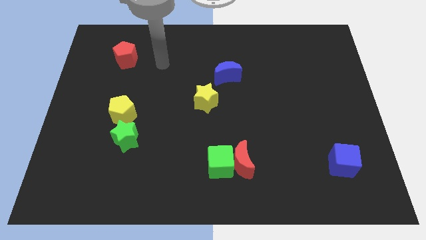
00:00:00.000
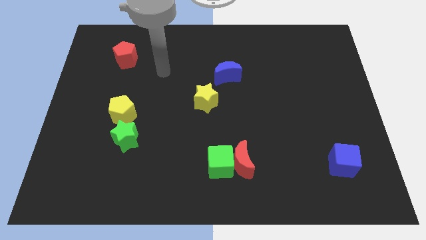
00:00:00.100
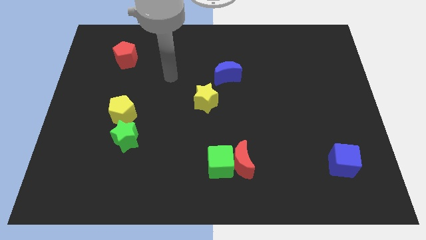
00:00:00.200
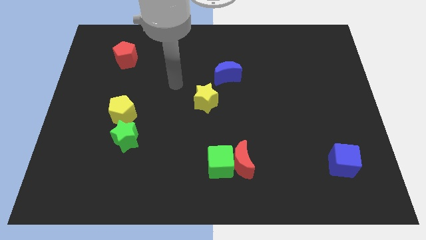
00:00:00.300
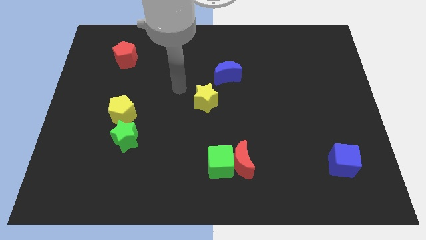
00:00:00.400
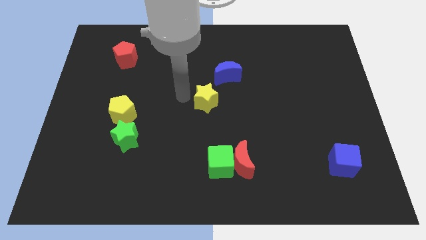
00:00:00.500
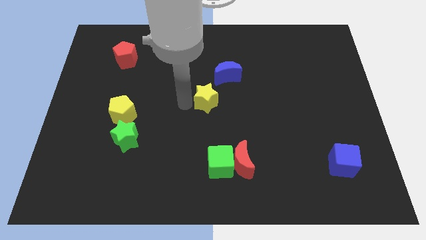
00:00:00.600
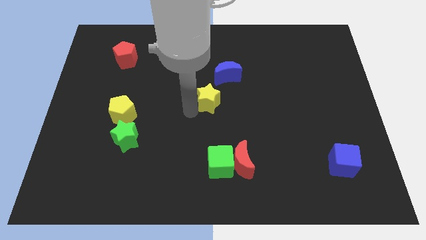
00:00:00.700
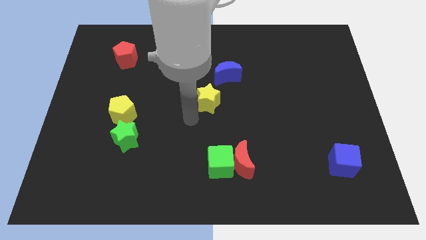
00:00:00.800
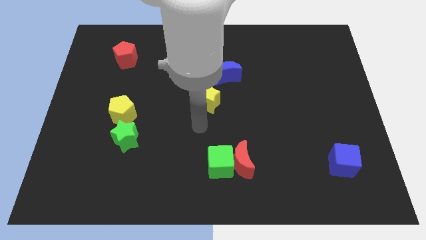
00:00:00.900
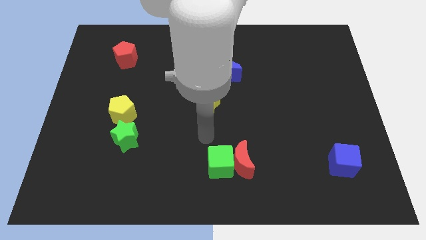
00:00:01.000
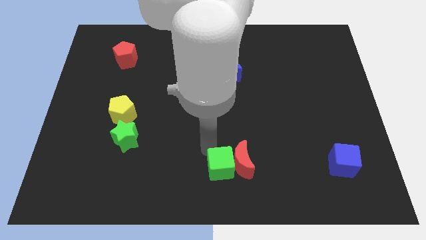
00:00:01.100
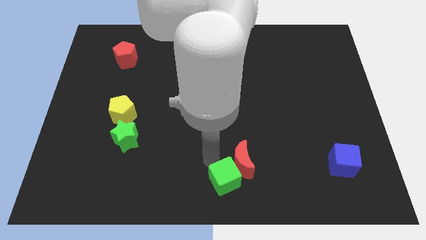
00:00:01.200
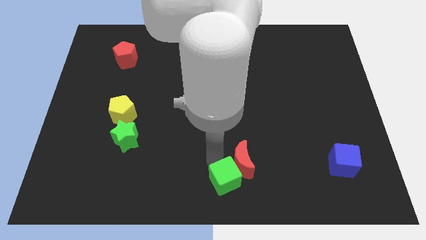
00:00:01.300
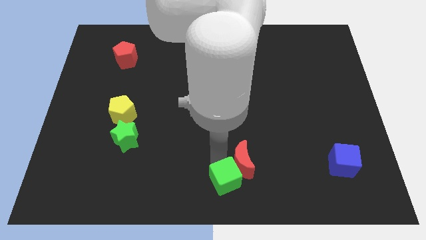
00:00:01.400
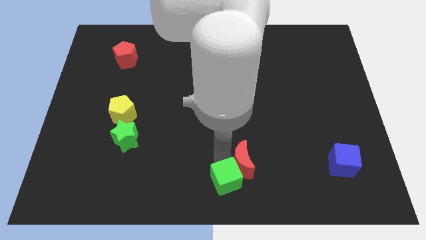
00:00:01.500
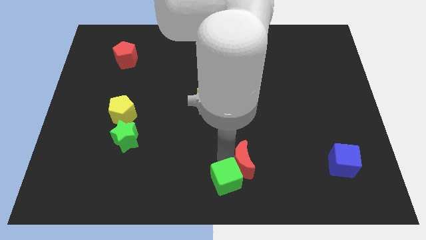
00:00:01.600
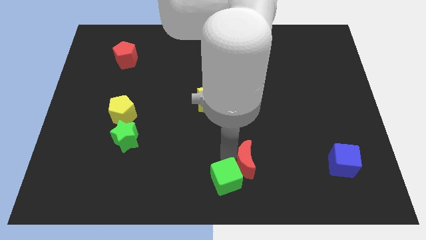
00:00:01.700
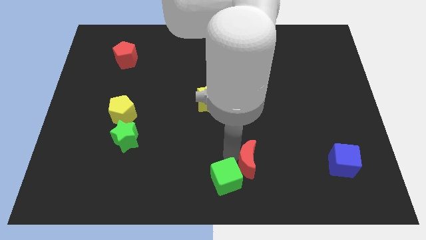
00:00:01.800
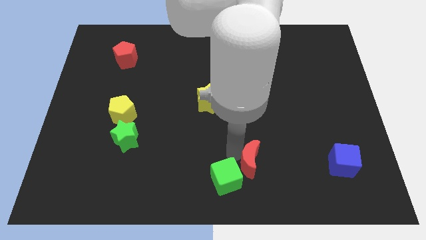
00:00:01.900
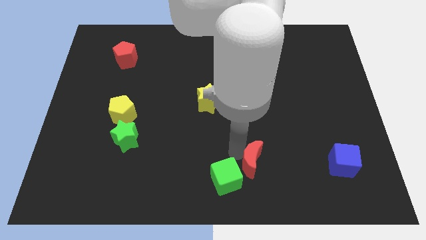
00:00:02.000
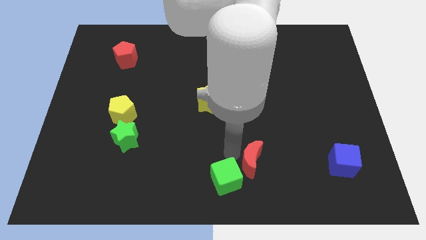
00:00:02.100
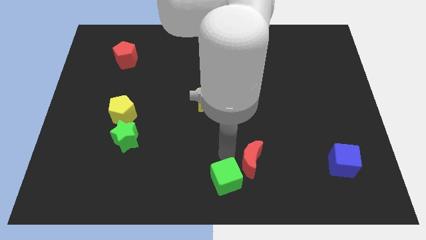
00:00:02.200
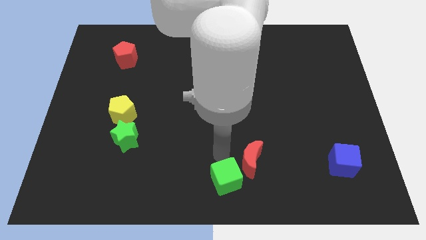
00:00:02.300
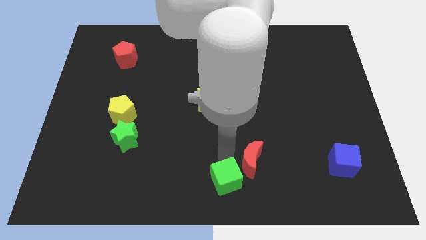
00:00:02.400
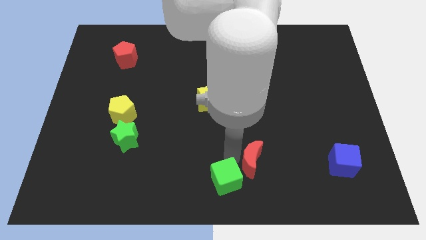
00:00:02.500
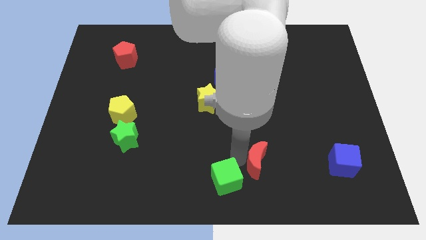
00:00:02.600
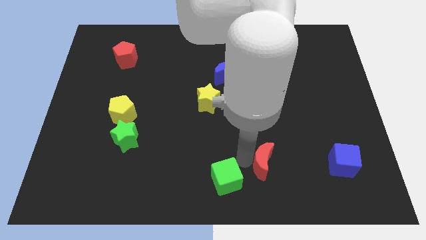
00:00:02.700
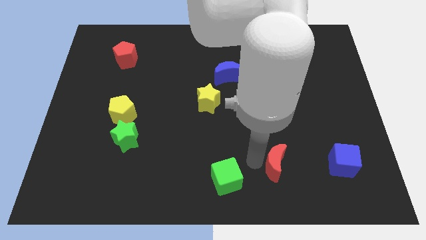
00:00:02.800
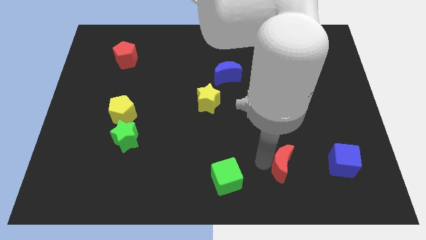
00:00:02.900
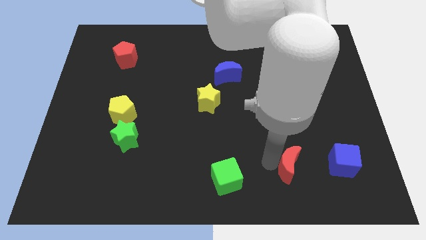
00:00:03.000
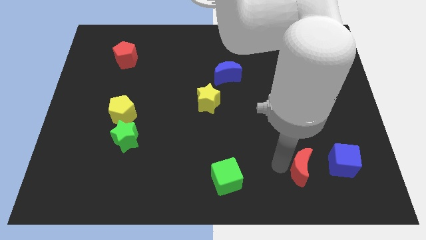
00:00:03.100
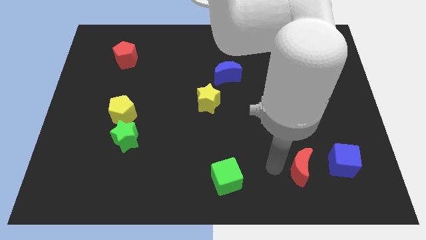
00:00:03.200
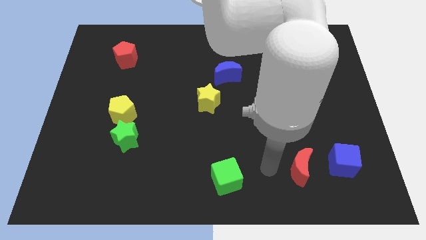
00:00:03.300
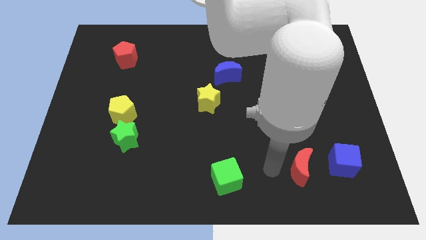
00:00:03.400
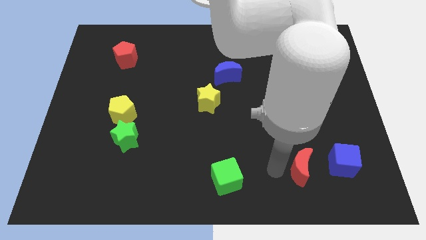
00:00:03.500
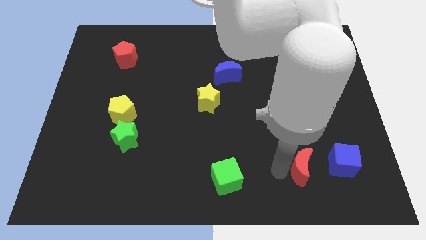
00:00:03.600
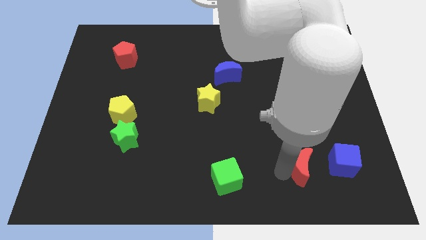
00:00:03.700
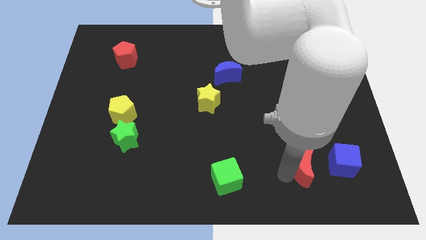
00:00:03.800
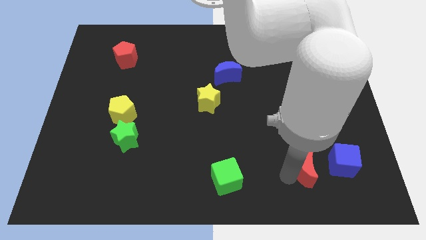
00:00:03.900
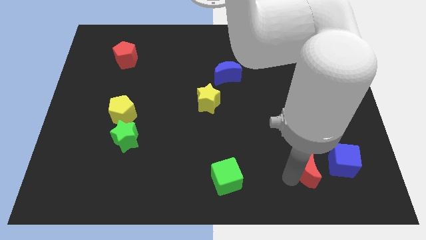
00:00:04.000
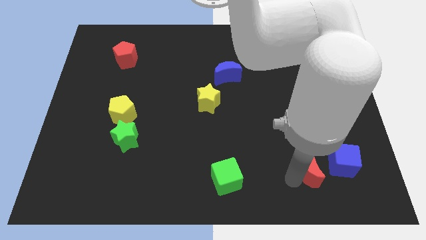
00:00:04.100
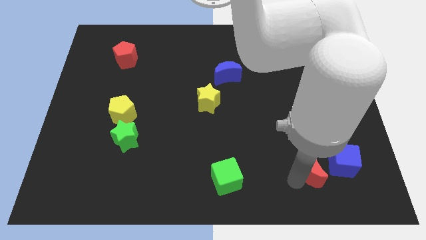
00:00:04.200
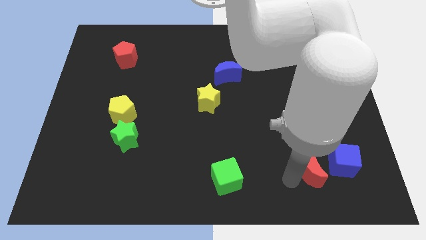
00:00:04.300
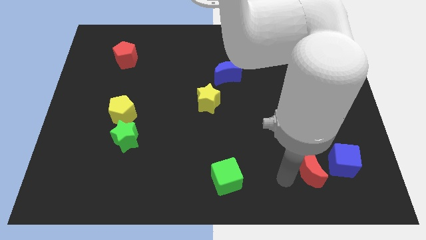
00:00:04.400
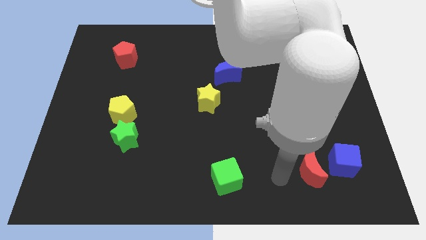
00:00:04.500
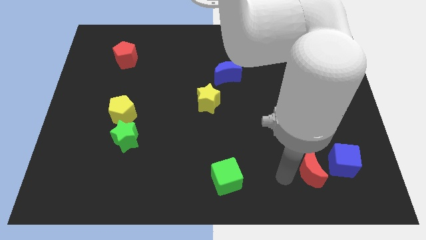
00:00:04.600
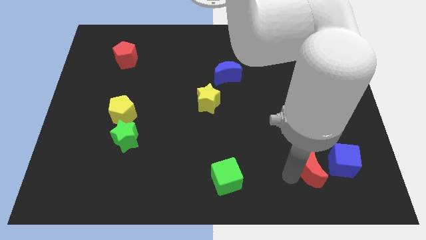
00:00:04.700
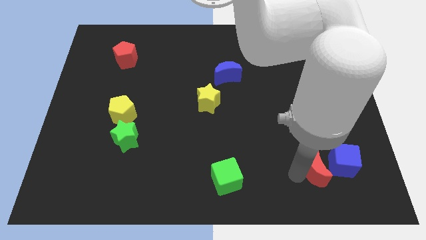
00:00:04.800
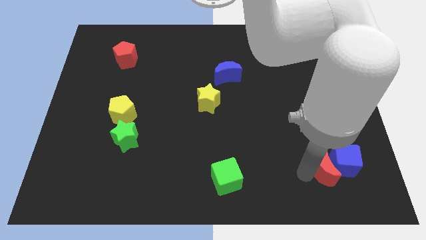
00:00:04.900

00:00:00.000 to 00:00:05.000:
slide the red moon to the blue cube

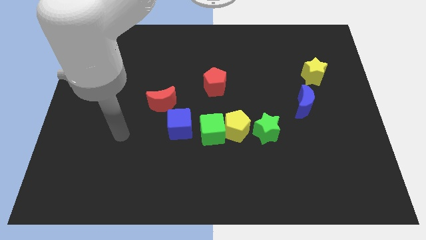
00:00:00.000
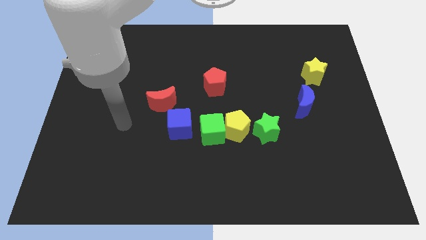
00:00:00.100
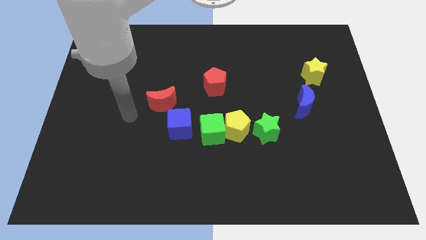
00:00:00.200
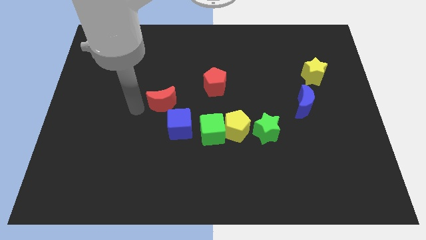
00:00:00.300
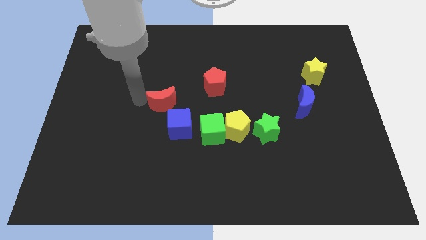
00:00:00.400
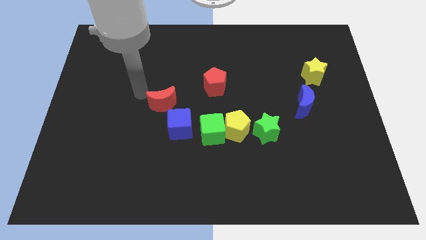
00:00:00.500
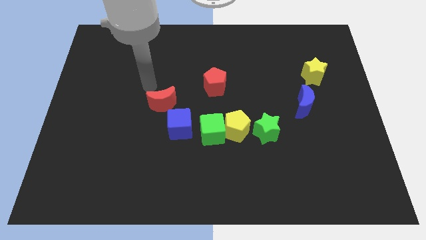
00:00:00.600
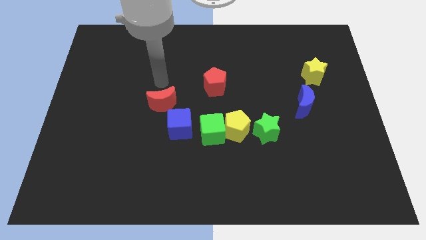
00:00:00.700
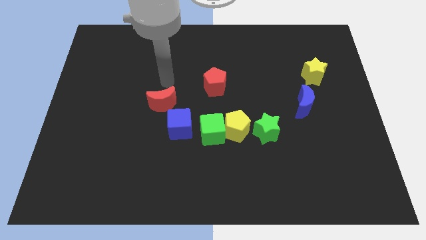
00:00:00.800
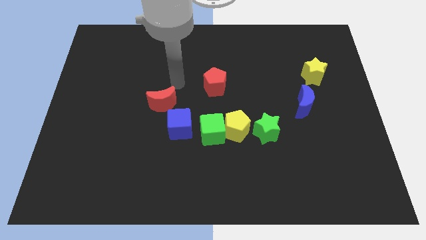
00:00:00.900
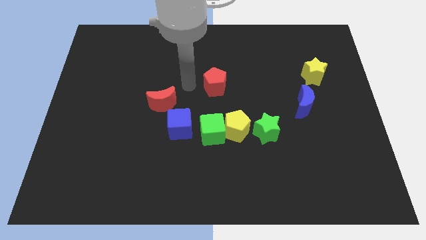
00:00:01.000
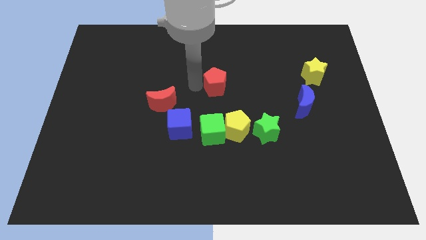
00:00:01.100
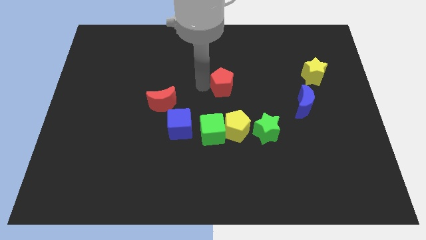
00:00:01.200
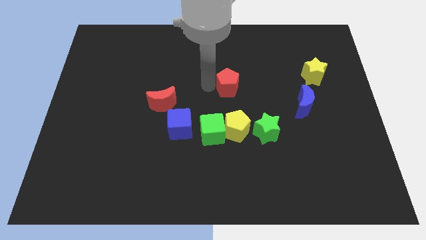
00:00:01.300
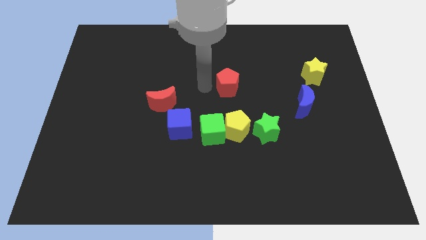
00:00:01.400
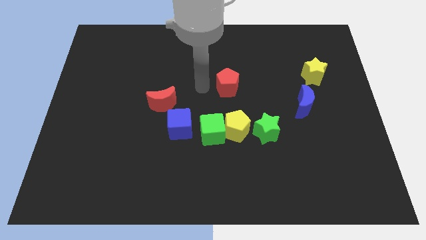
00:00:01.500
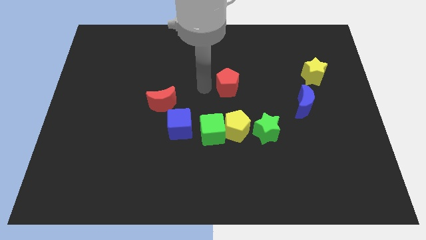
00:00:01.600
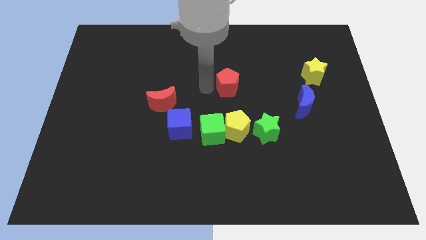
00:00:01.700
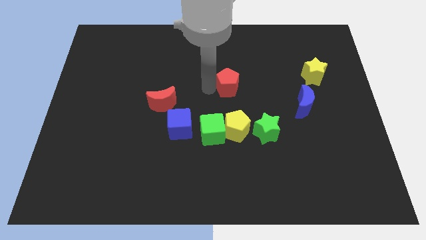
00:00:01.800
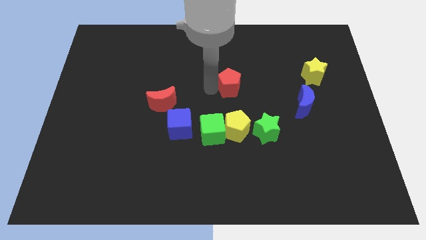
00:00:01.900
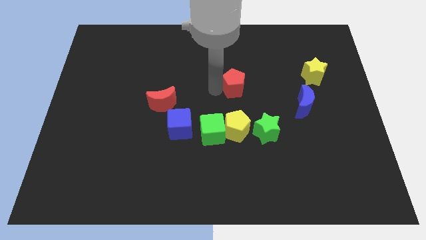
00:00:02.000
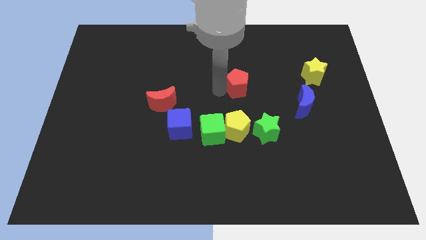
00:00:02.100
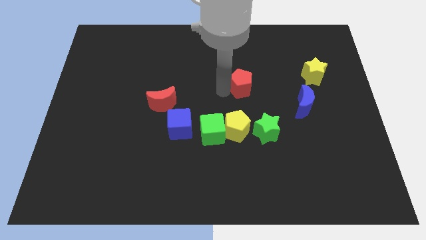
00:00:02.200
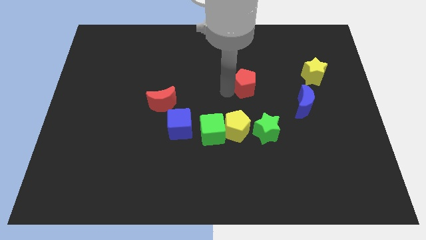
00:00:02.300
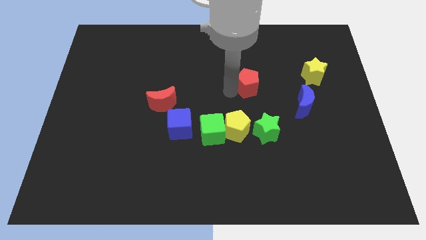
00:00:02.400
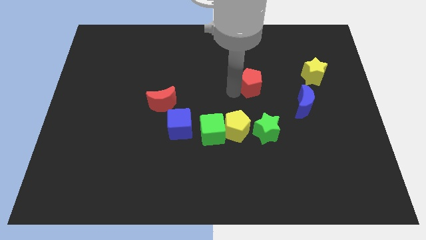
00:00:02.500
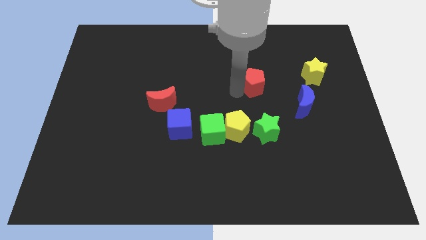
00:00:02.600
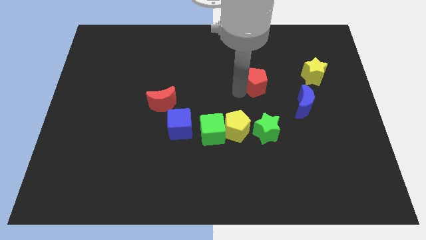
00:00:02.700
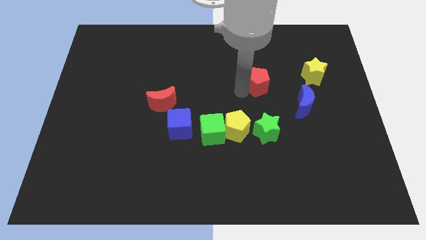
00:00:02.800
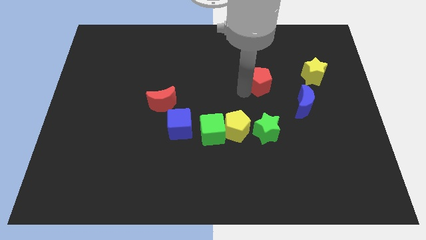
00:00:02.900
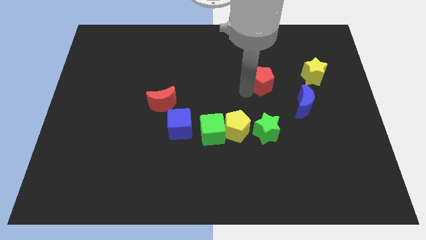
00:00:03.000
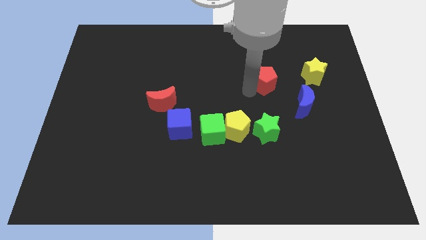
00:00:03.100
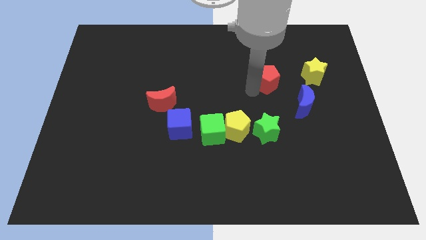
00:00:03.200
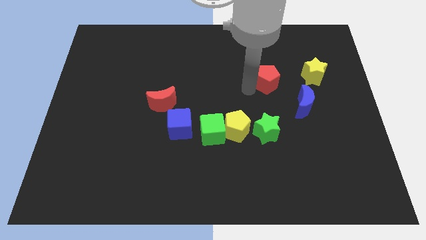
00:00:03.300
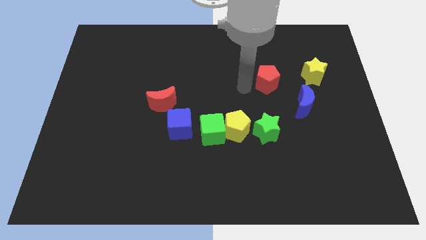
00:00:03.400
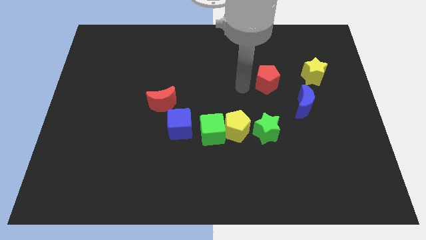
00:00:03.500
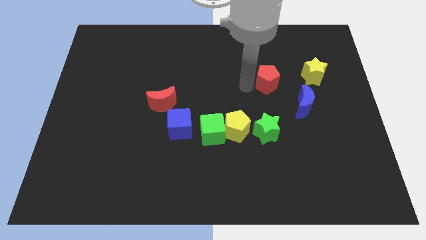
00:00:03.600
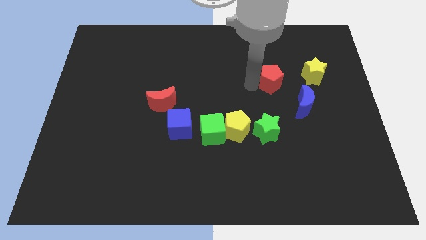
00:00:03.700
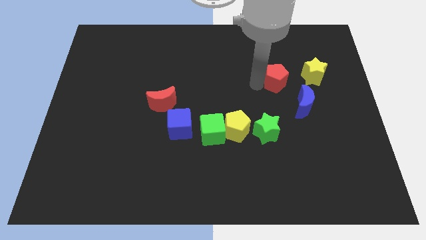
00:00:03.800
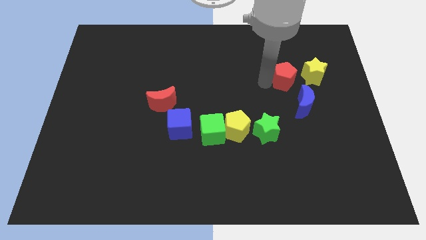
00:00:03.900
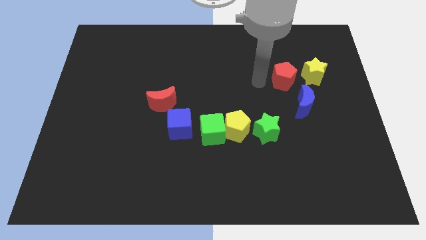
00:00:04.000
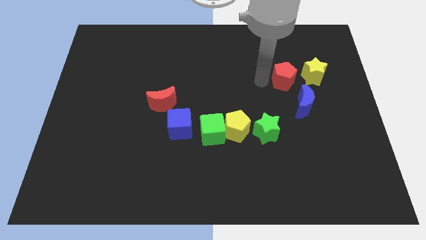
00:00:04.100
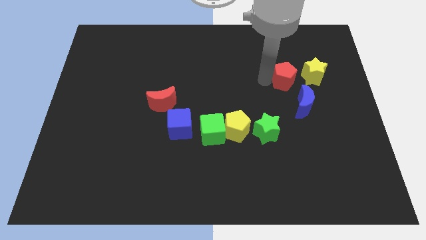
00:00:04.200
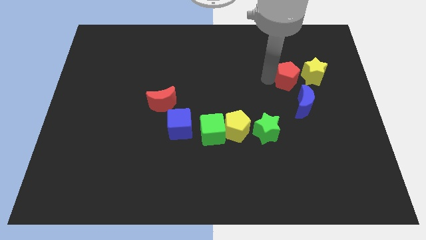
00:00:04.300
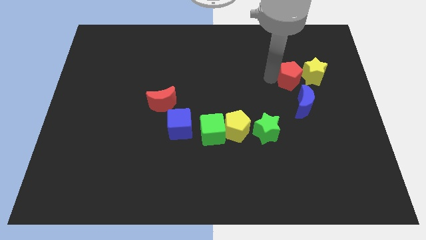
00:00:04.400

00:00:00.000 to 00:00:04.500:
move the red pentagon towards the yellow star
